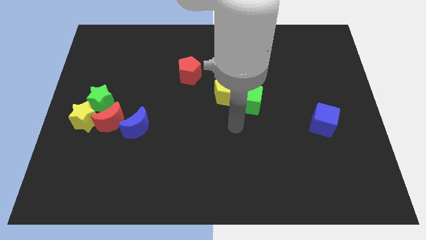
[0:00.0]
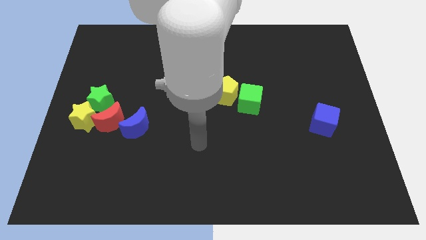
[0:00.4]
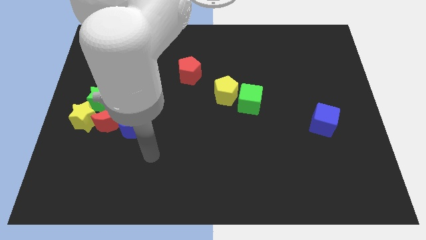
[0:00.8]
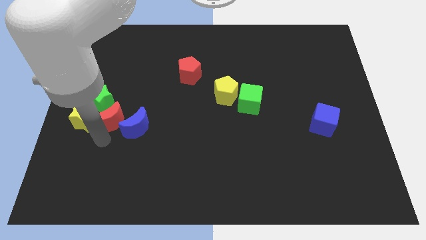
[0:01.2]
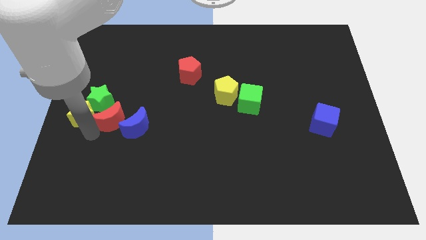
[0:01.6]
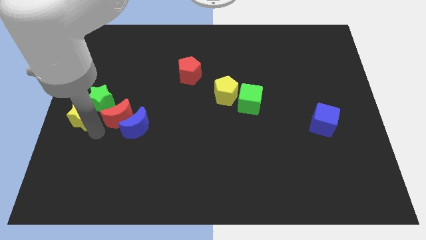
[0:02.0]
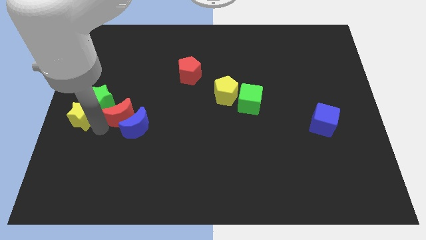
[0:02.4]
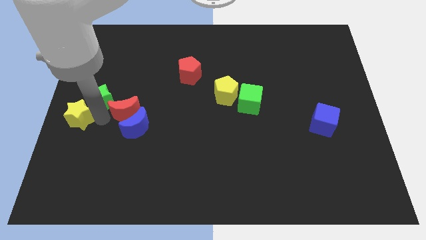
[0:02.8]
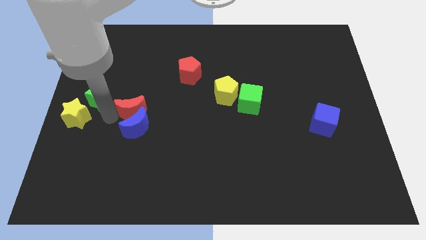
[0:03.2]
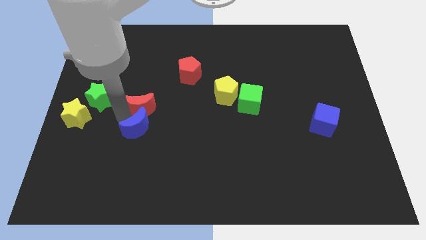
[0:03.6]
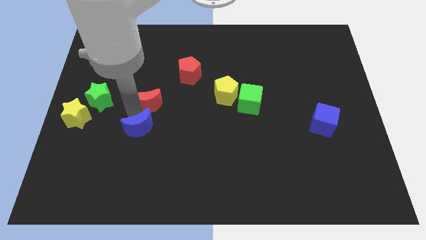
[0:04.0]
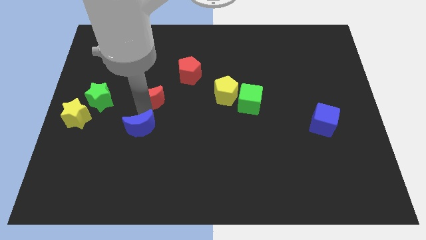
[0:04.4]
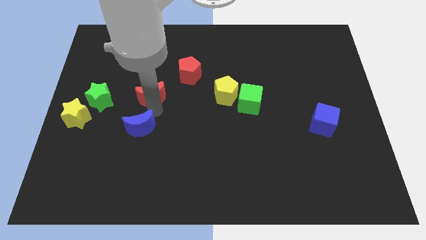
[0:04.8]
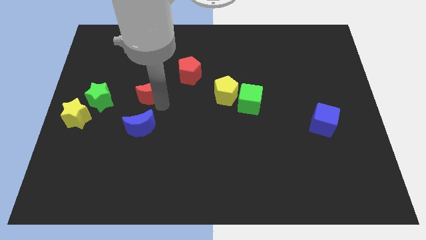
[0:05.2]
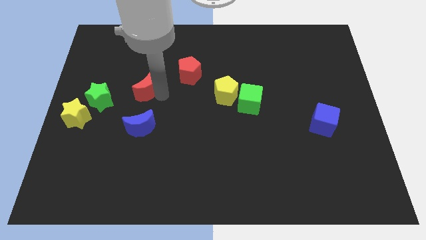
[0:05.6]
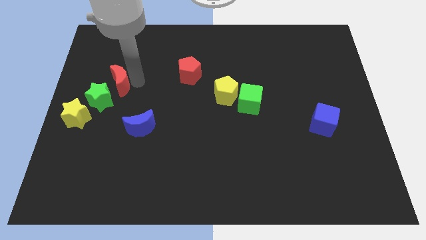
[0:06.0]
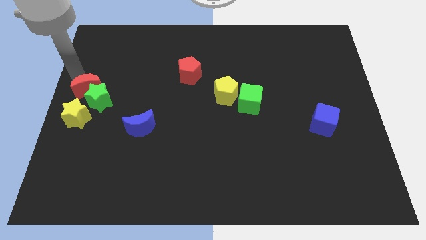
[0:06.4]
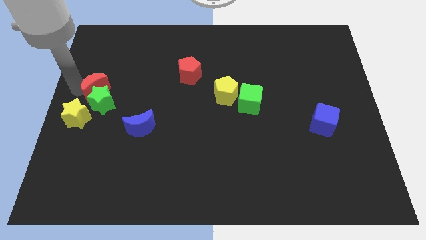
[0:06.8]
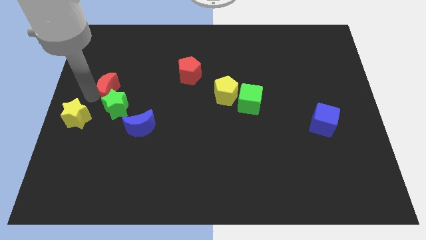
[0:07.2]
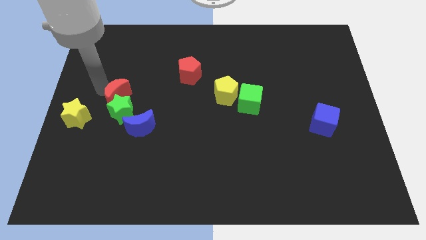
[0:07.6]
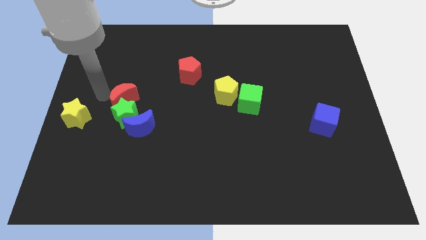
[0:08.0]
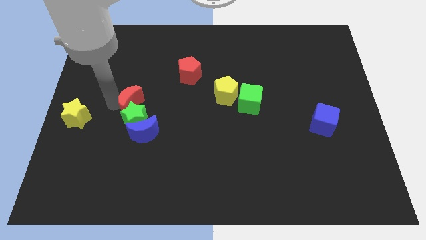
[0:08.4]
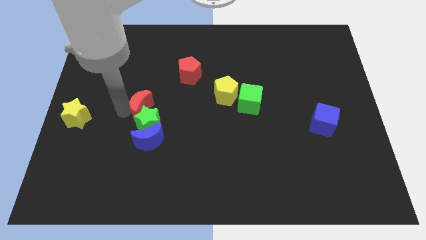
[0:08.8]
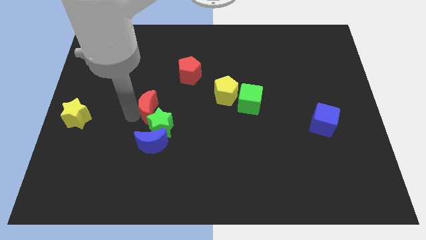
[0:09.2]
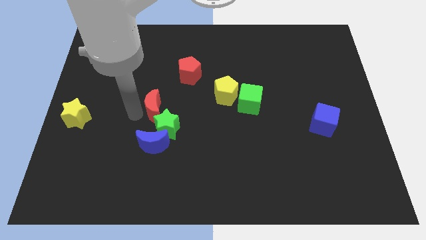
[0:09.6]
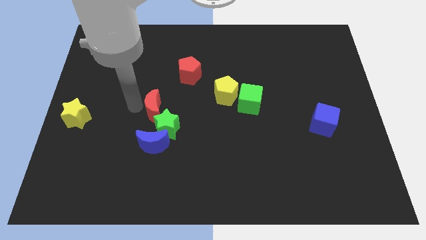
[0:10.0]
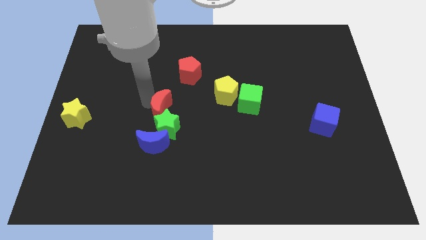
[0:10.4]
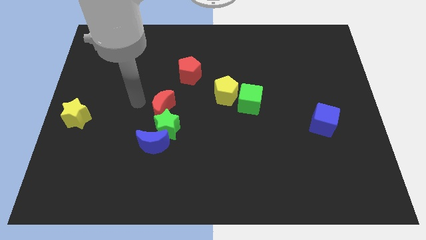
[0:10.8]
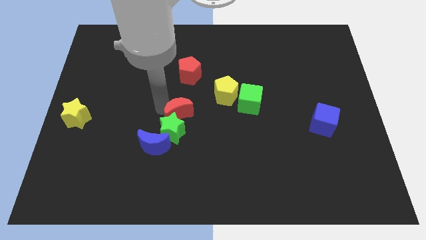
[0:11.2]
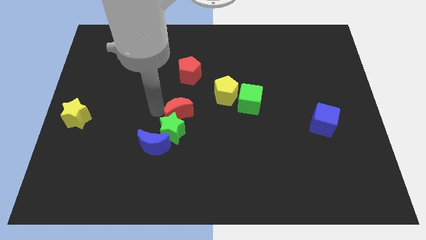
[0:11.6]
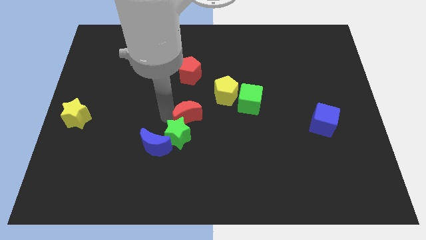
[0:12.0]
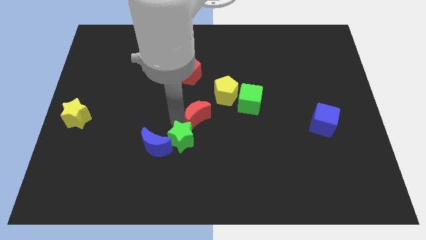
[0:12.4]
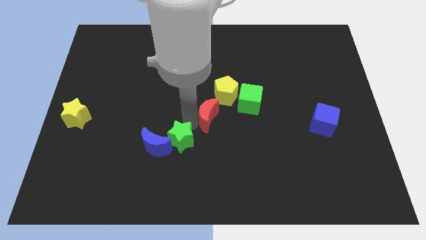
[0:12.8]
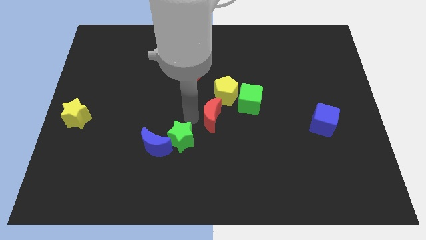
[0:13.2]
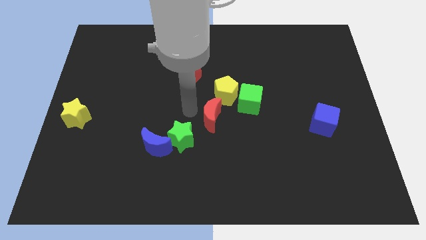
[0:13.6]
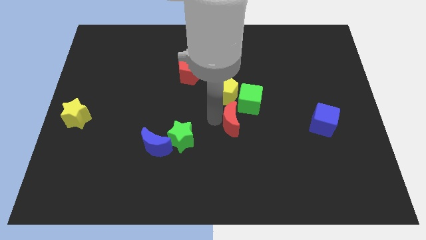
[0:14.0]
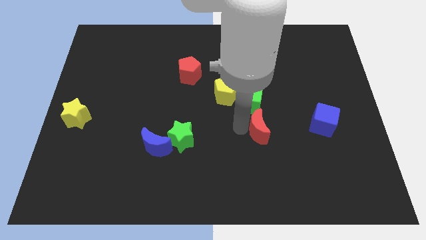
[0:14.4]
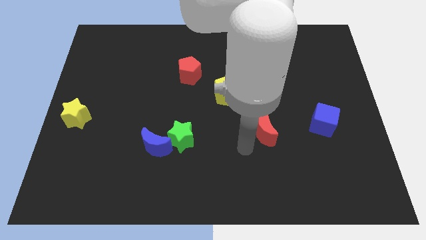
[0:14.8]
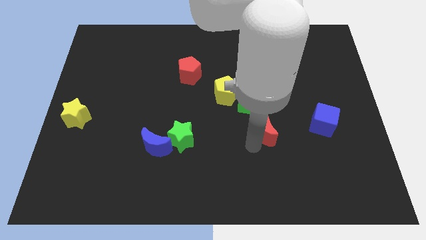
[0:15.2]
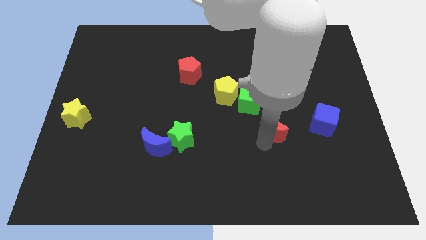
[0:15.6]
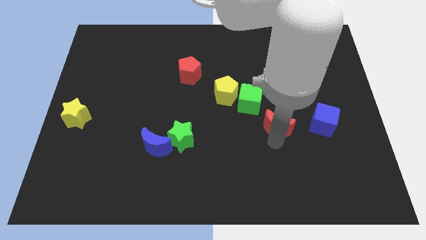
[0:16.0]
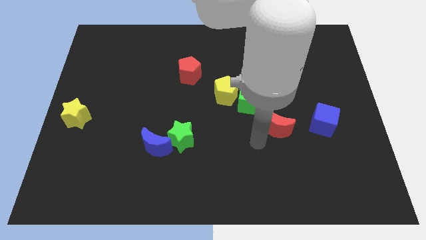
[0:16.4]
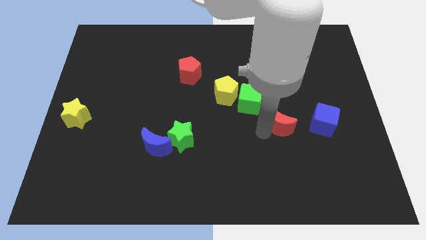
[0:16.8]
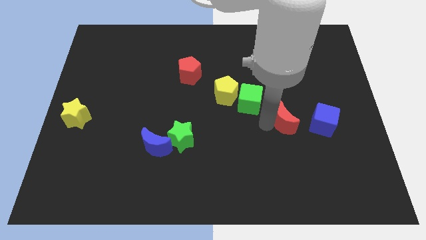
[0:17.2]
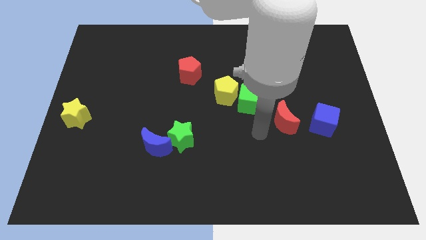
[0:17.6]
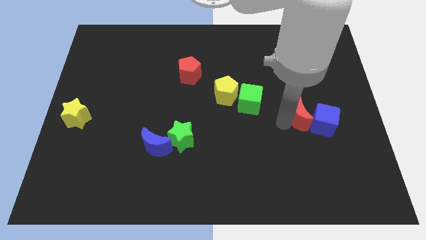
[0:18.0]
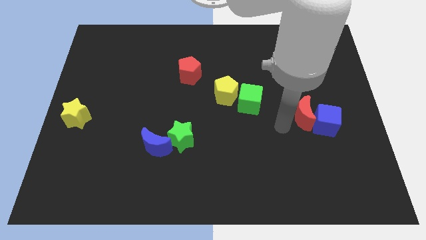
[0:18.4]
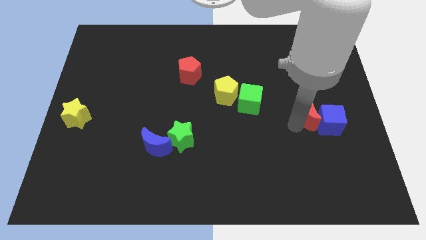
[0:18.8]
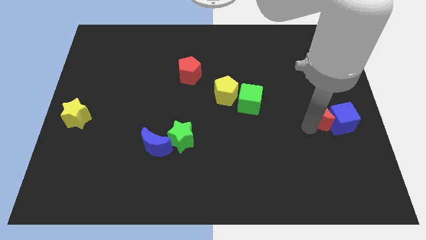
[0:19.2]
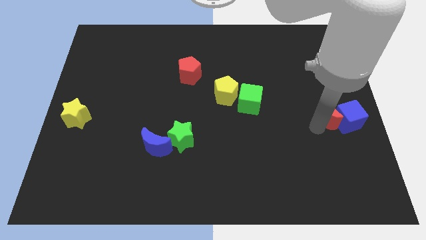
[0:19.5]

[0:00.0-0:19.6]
push the red moon to the center right

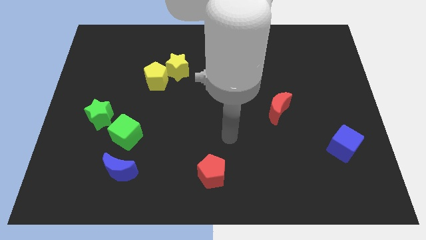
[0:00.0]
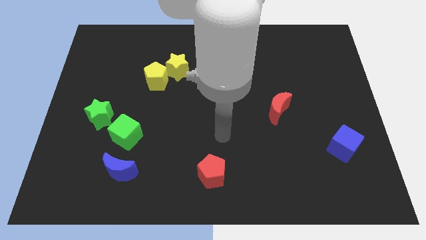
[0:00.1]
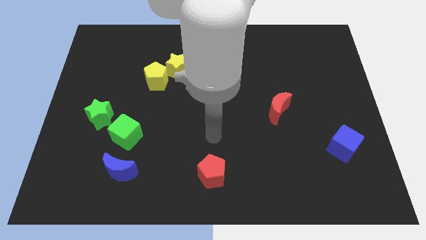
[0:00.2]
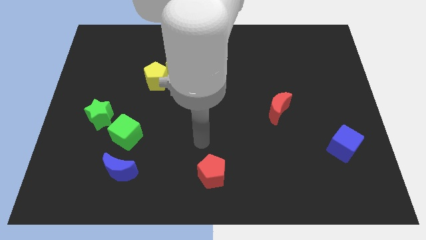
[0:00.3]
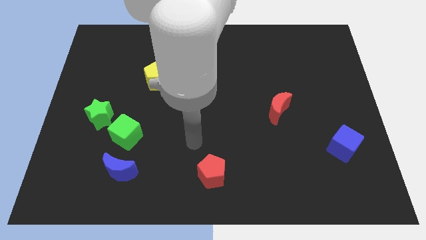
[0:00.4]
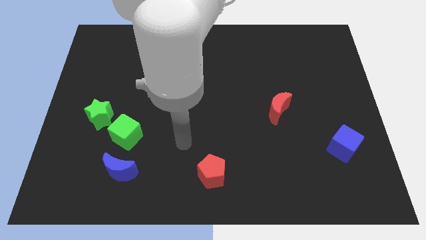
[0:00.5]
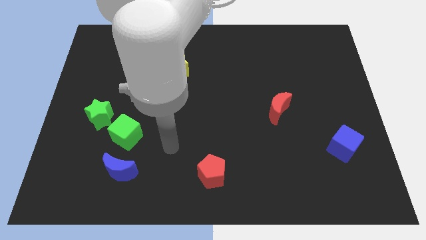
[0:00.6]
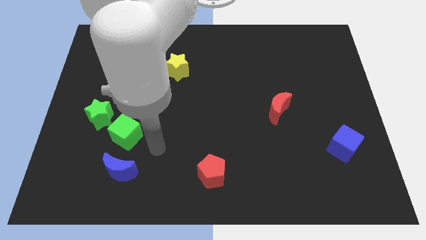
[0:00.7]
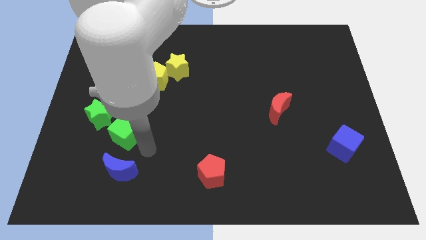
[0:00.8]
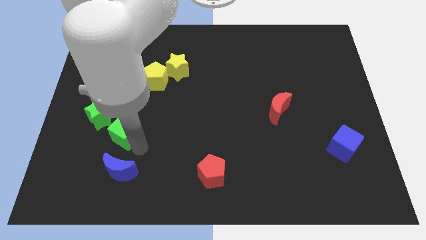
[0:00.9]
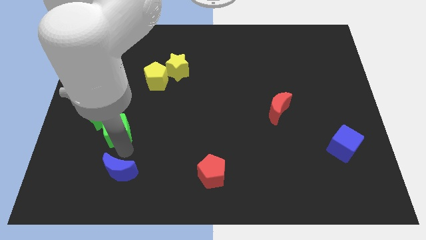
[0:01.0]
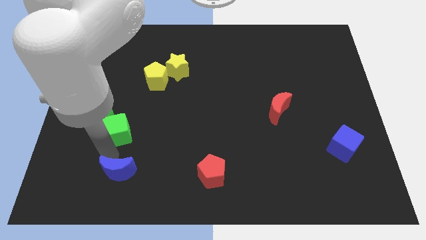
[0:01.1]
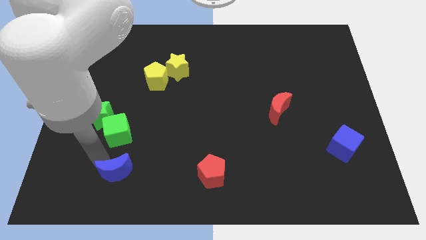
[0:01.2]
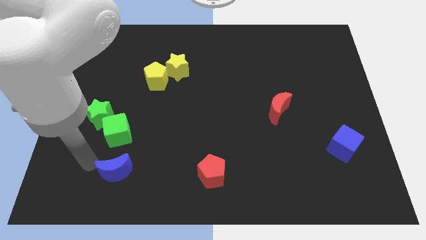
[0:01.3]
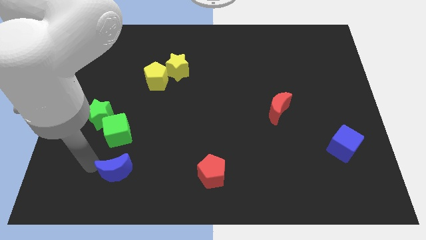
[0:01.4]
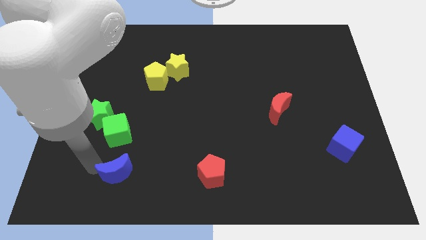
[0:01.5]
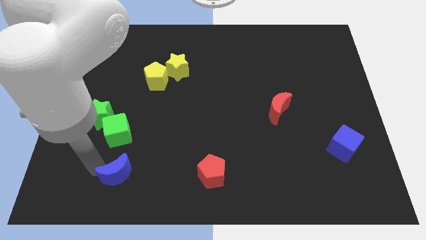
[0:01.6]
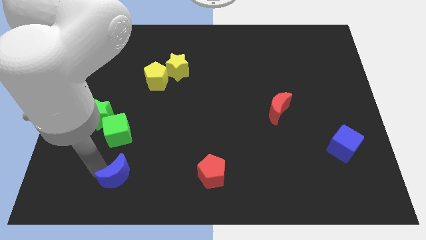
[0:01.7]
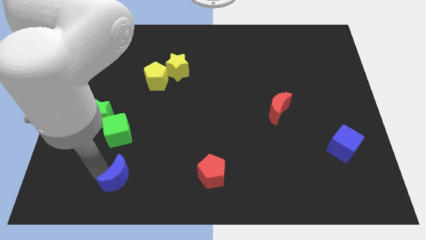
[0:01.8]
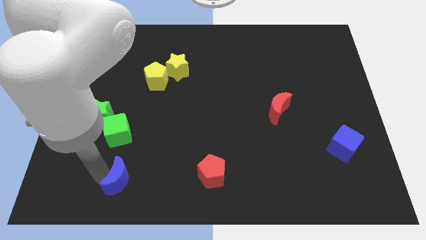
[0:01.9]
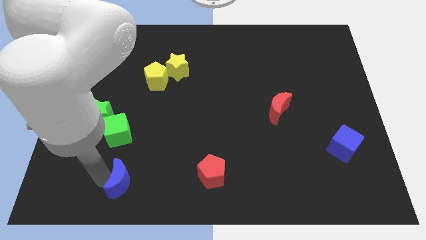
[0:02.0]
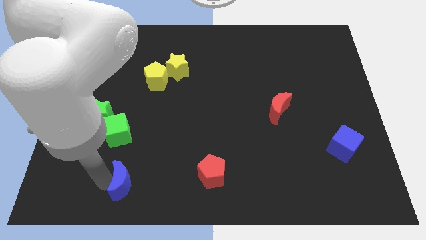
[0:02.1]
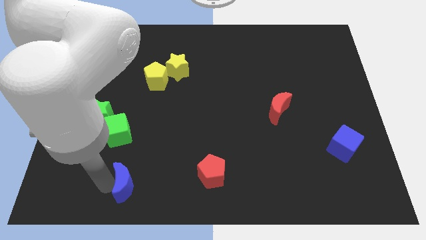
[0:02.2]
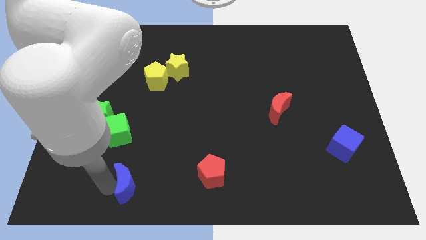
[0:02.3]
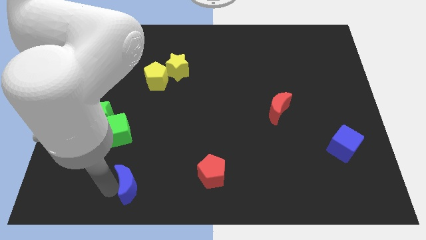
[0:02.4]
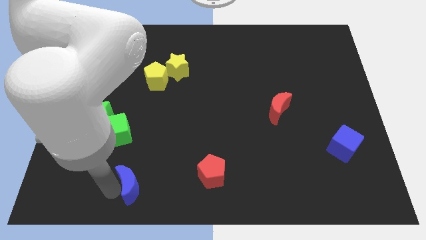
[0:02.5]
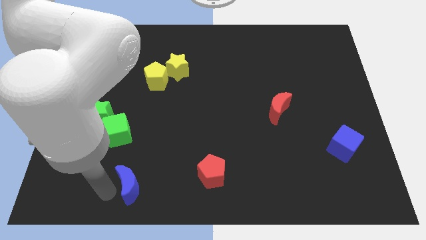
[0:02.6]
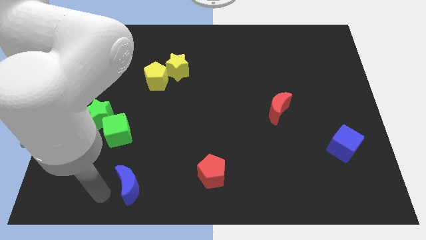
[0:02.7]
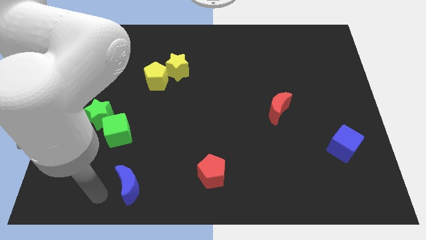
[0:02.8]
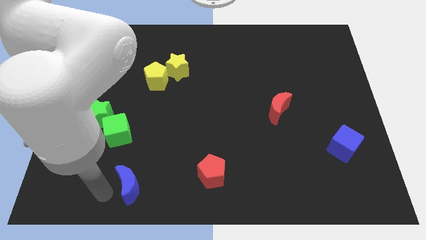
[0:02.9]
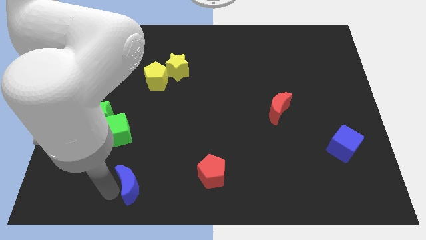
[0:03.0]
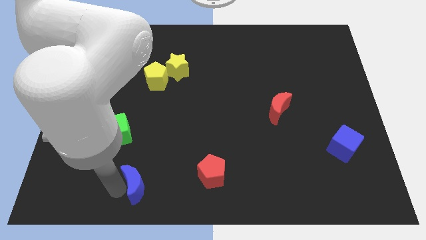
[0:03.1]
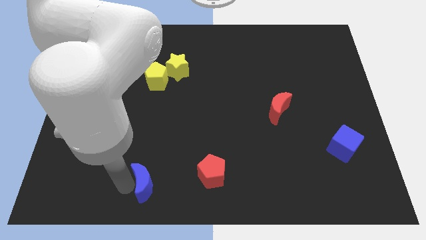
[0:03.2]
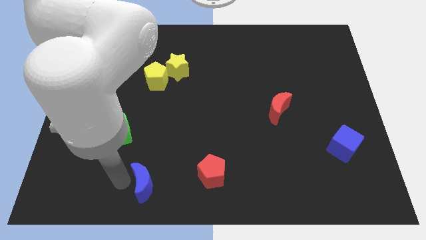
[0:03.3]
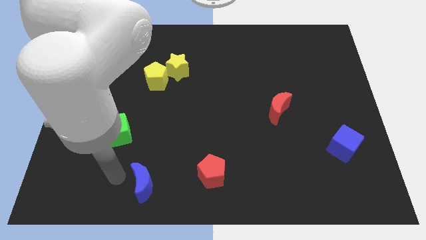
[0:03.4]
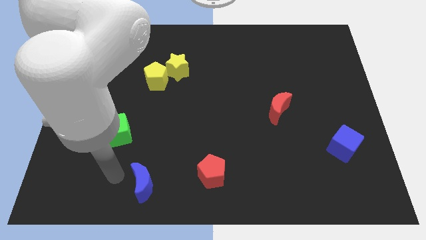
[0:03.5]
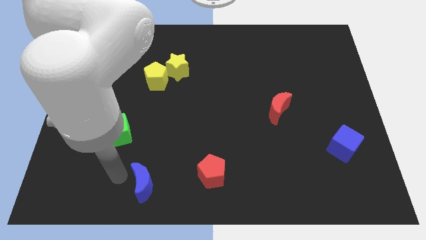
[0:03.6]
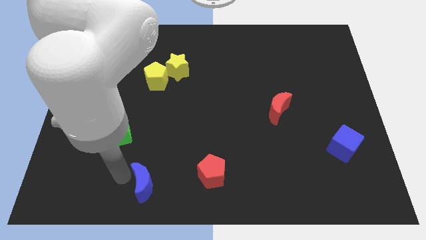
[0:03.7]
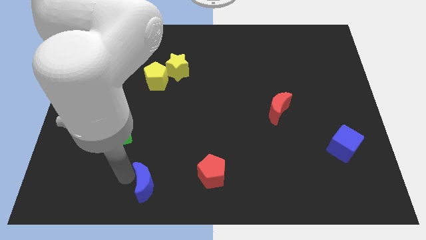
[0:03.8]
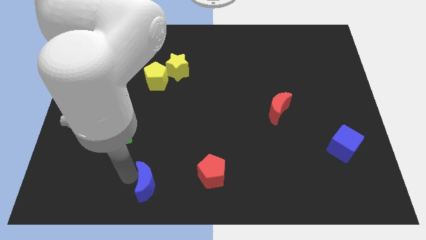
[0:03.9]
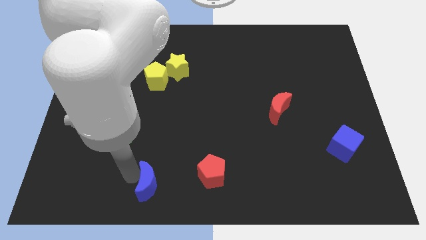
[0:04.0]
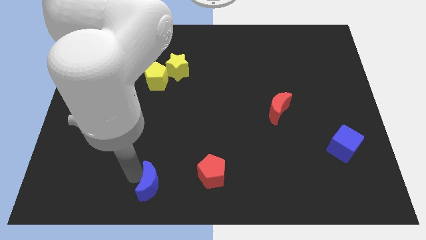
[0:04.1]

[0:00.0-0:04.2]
push the blue moon to the bottom
